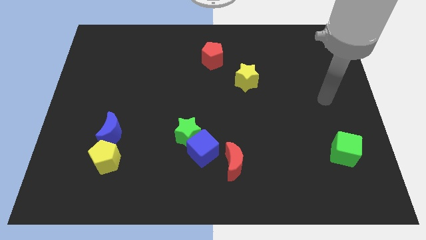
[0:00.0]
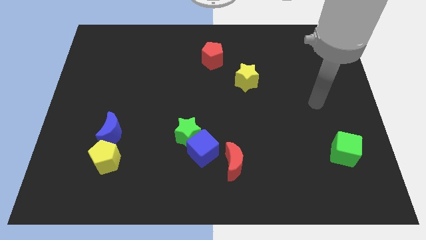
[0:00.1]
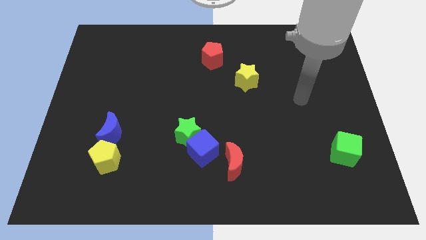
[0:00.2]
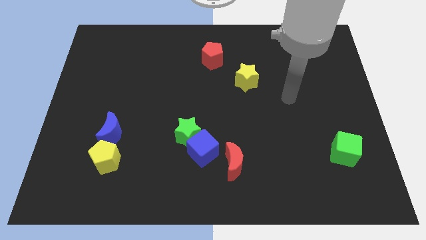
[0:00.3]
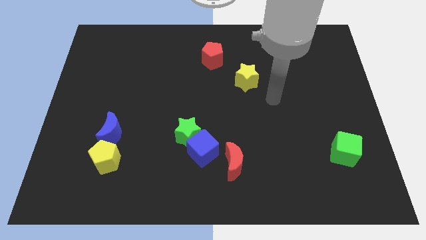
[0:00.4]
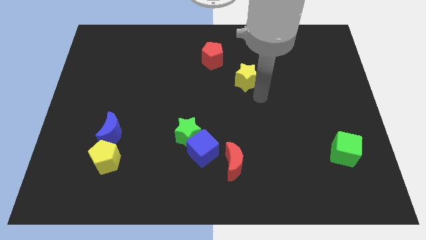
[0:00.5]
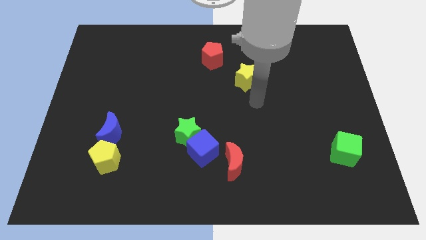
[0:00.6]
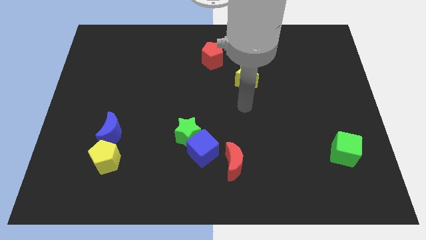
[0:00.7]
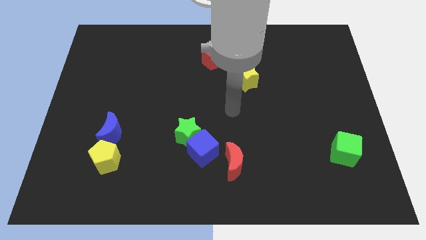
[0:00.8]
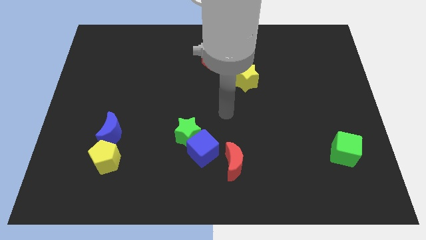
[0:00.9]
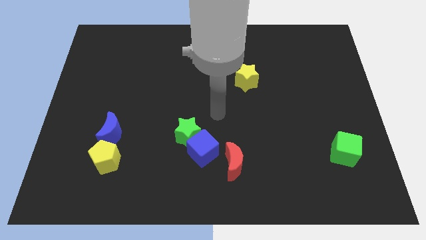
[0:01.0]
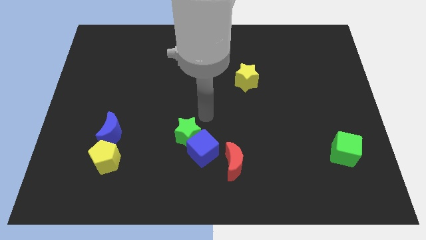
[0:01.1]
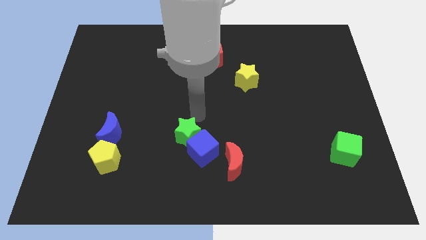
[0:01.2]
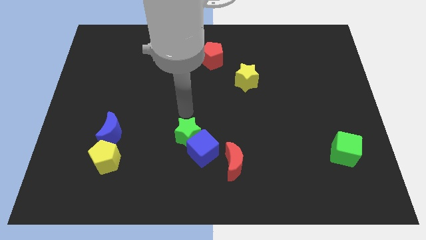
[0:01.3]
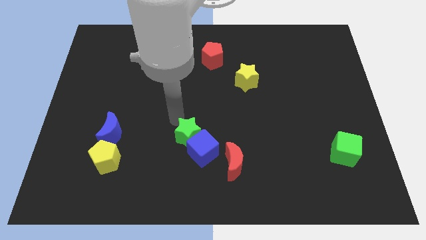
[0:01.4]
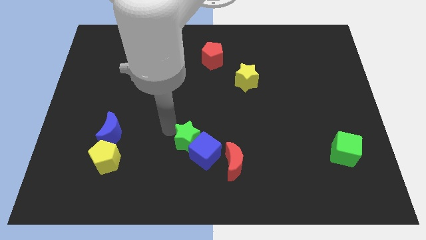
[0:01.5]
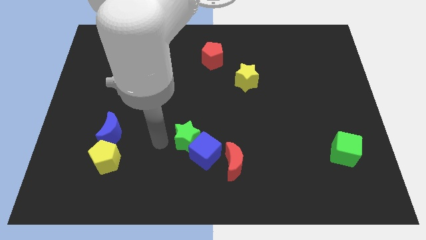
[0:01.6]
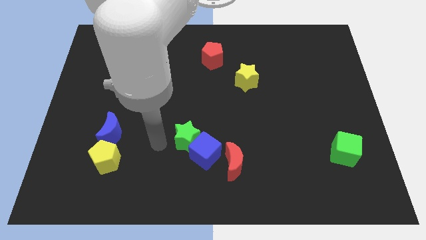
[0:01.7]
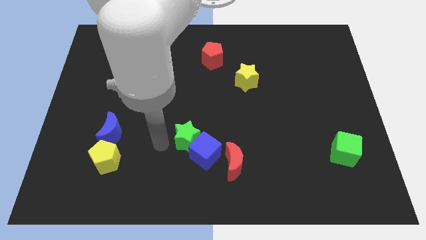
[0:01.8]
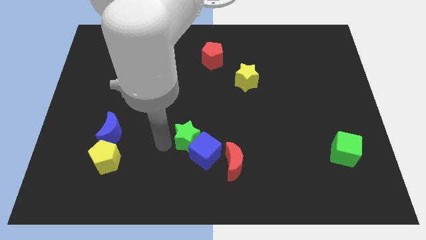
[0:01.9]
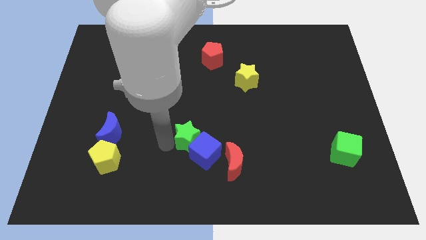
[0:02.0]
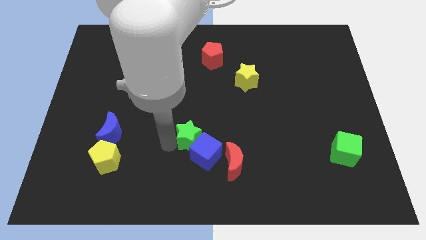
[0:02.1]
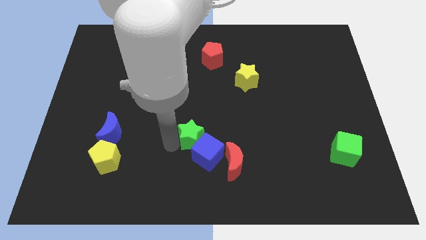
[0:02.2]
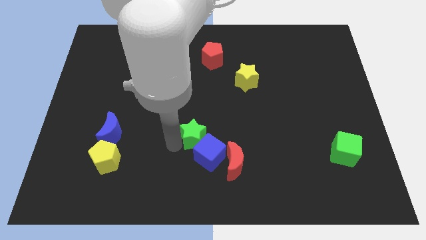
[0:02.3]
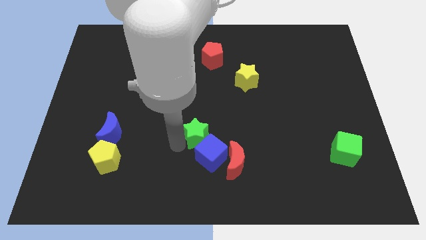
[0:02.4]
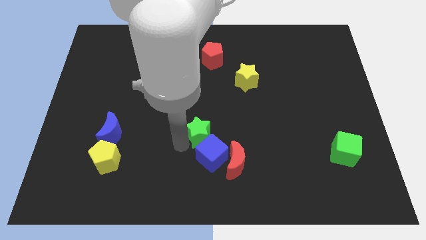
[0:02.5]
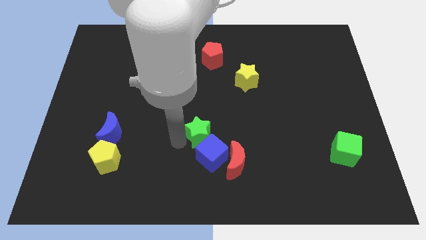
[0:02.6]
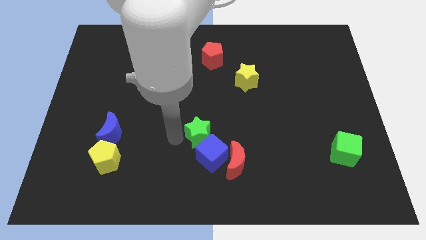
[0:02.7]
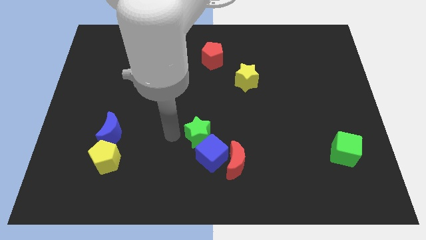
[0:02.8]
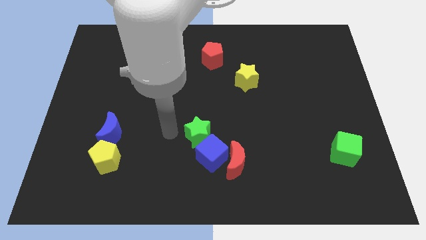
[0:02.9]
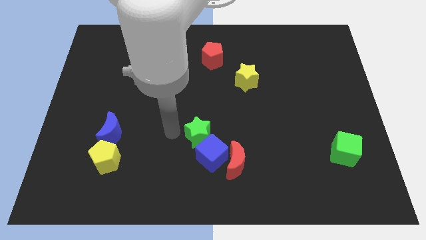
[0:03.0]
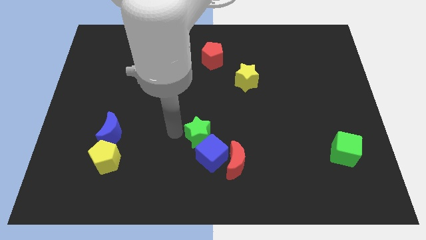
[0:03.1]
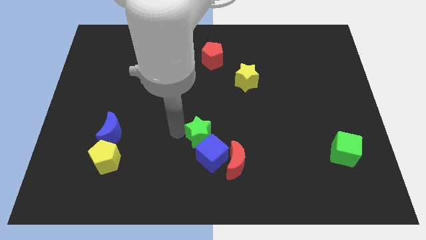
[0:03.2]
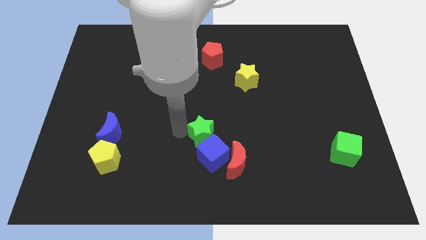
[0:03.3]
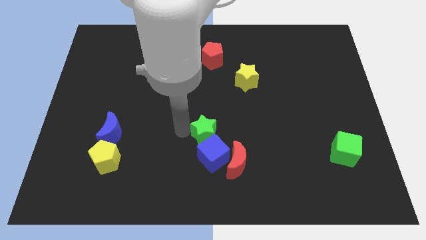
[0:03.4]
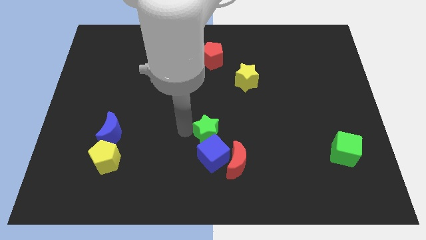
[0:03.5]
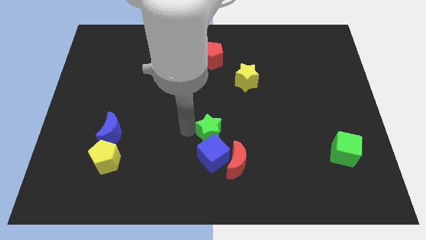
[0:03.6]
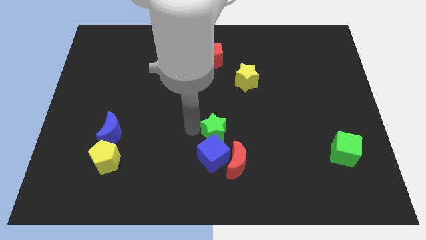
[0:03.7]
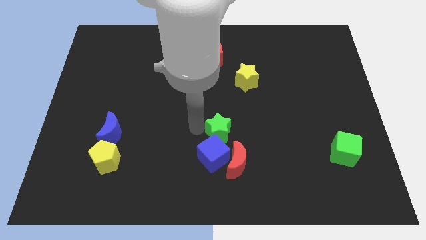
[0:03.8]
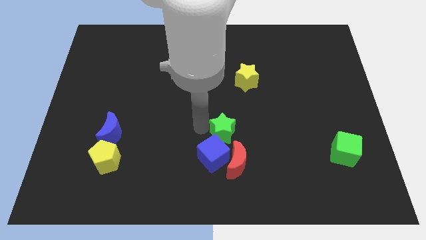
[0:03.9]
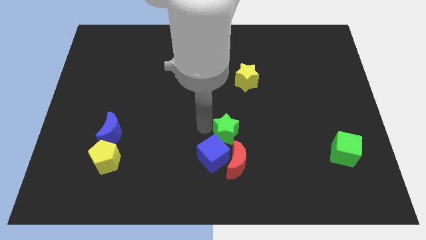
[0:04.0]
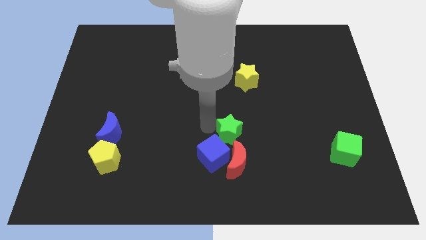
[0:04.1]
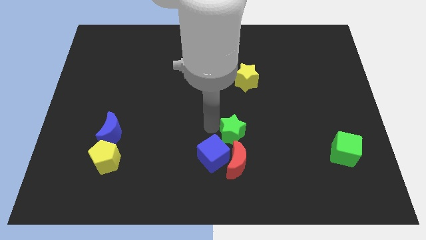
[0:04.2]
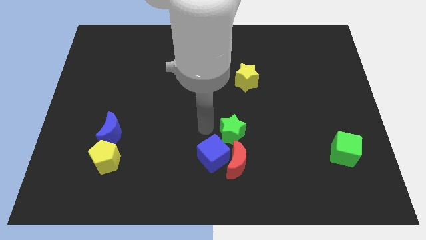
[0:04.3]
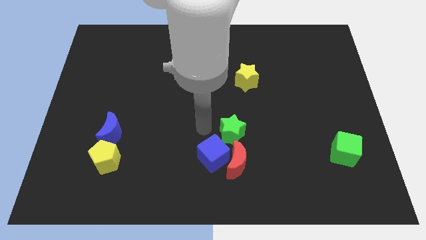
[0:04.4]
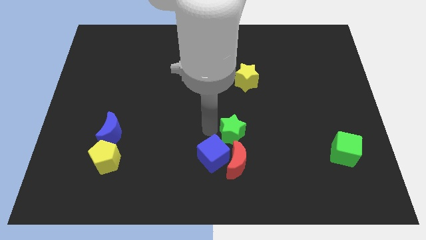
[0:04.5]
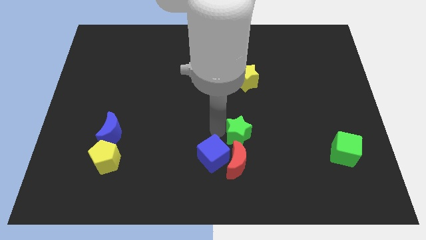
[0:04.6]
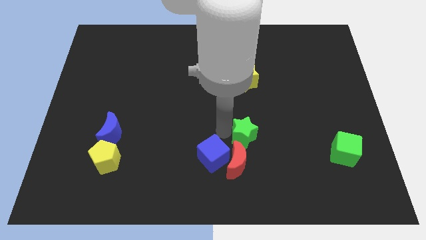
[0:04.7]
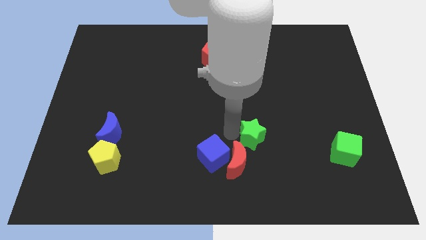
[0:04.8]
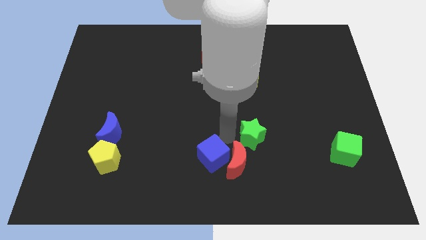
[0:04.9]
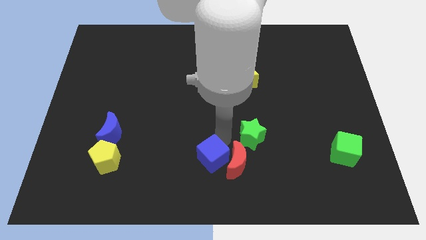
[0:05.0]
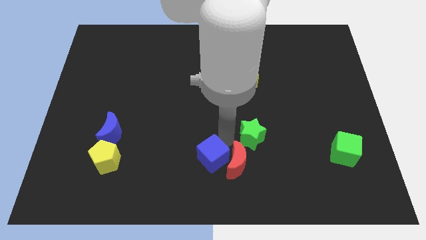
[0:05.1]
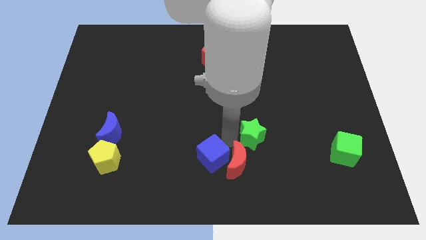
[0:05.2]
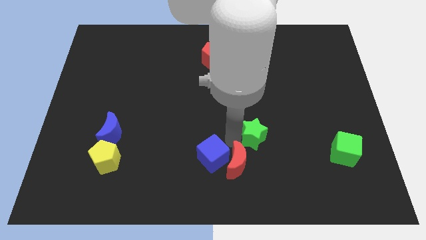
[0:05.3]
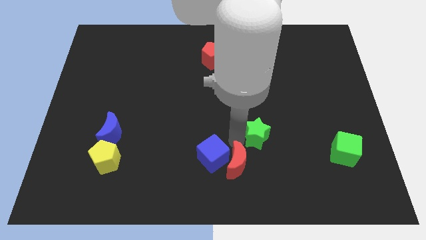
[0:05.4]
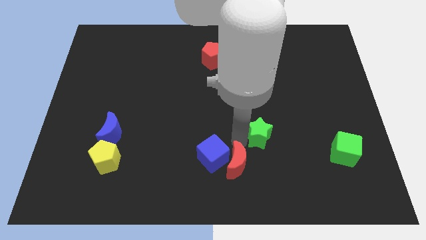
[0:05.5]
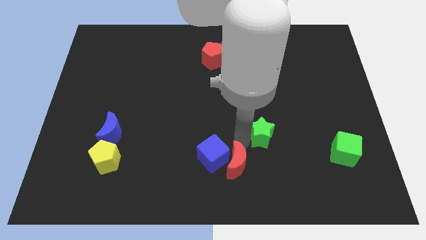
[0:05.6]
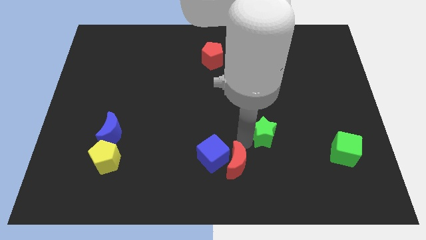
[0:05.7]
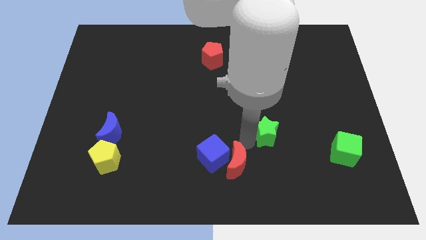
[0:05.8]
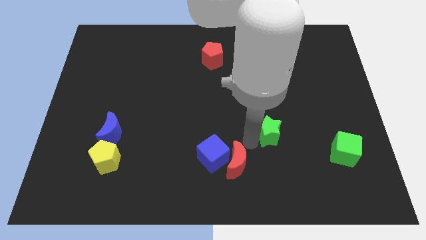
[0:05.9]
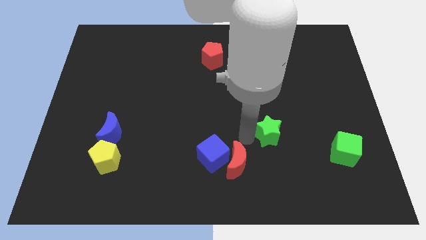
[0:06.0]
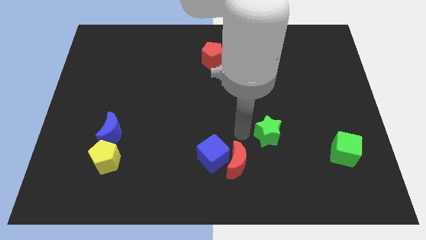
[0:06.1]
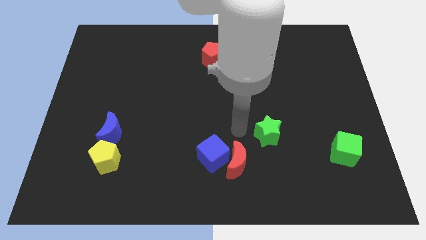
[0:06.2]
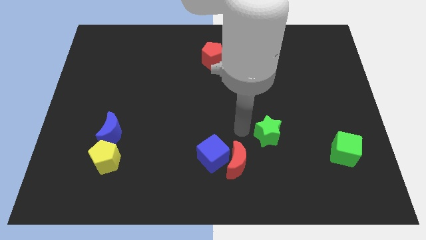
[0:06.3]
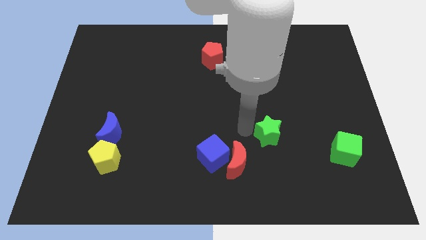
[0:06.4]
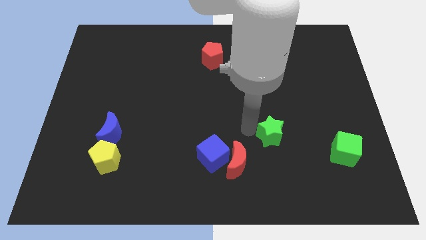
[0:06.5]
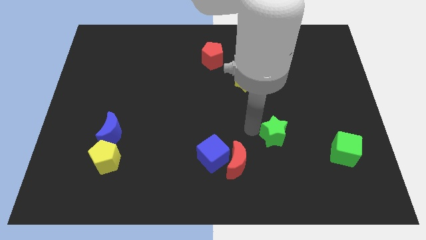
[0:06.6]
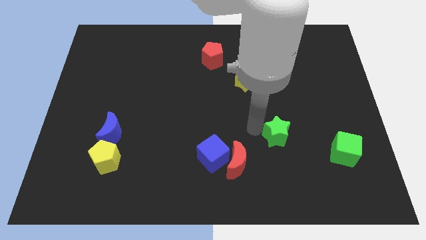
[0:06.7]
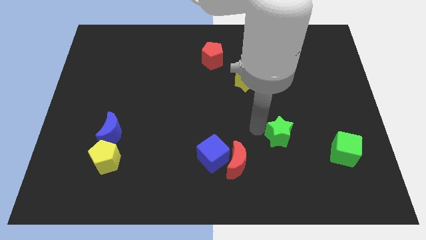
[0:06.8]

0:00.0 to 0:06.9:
push the green star right

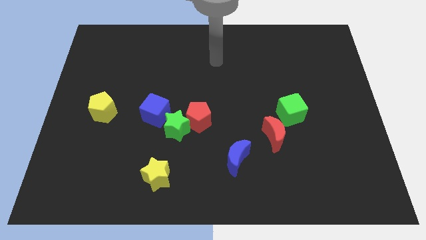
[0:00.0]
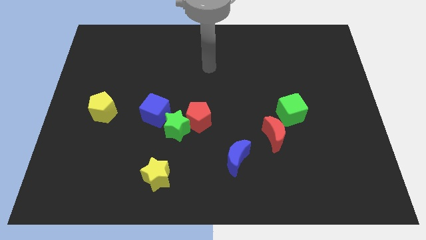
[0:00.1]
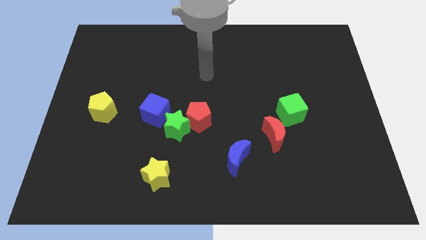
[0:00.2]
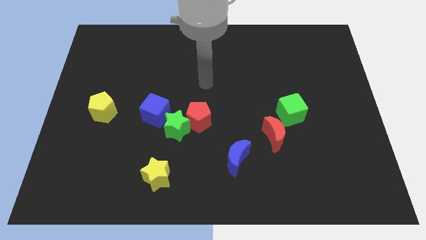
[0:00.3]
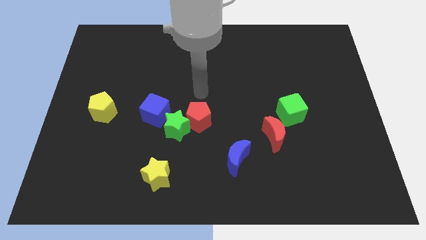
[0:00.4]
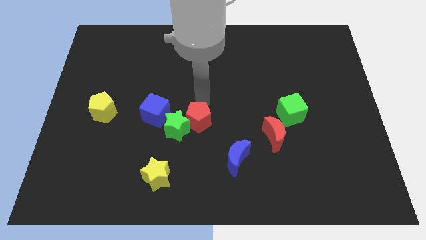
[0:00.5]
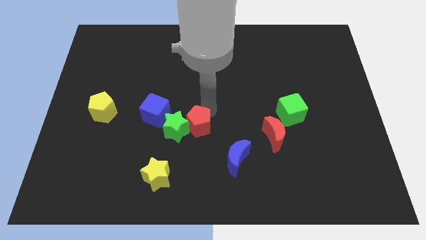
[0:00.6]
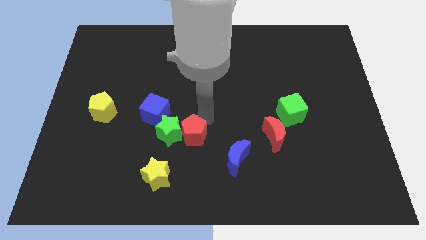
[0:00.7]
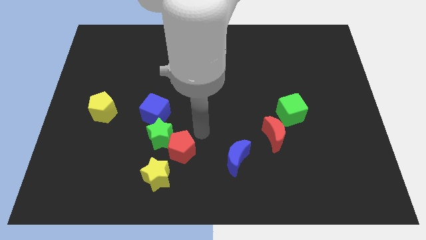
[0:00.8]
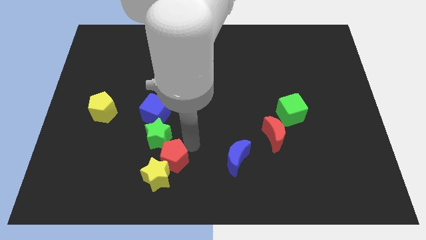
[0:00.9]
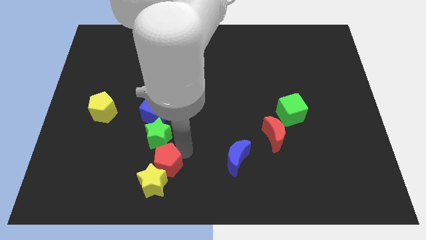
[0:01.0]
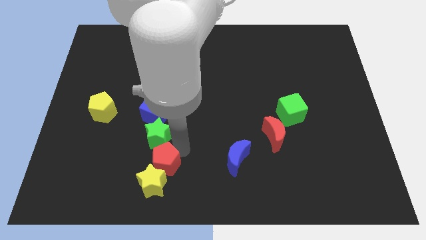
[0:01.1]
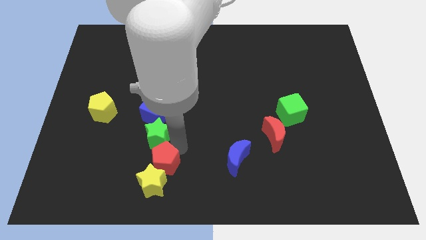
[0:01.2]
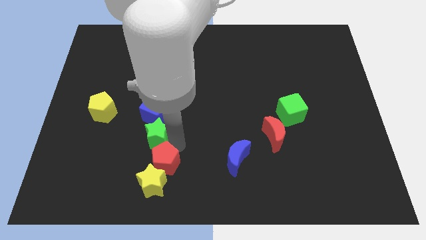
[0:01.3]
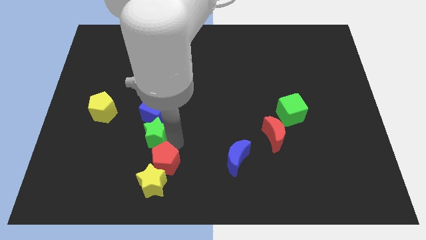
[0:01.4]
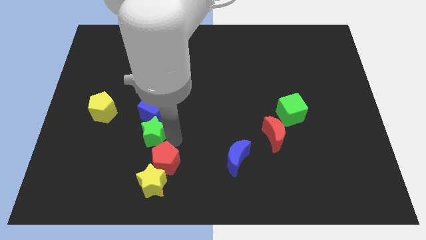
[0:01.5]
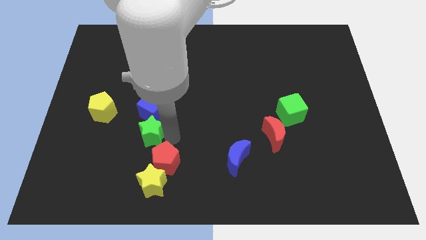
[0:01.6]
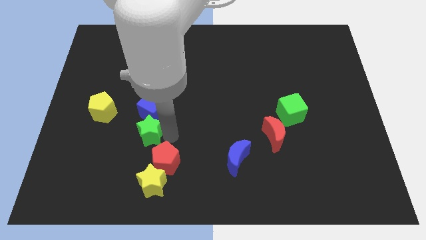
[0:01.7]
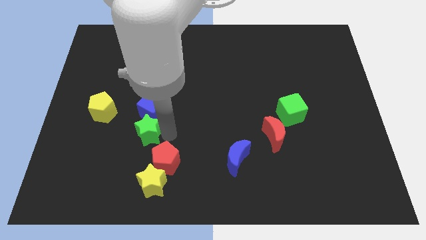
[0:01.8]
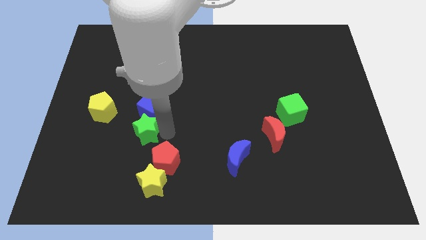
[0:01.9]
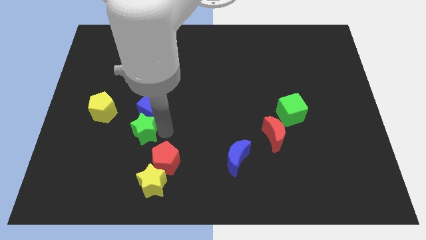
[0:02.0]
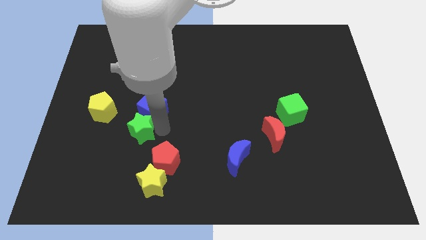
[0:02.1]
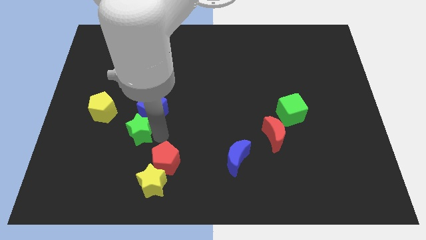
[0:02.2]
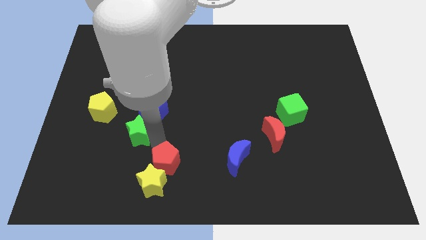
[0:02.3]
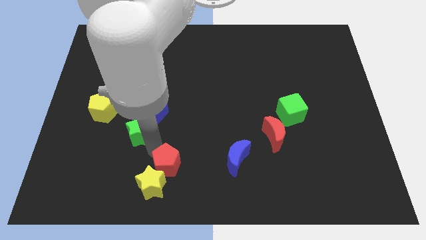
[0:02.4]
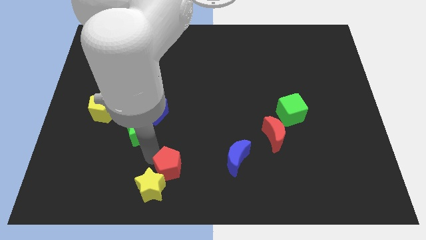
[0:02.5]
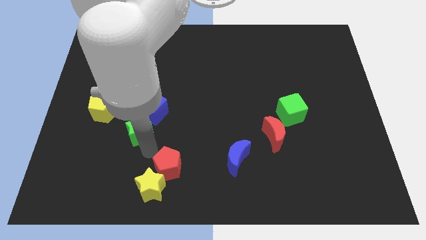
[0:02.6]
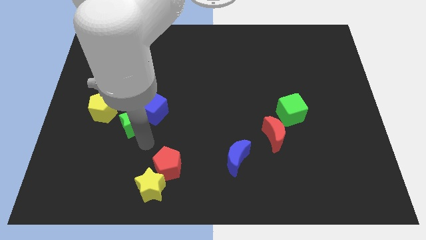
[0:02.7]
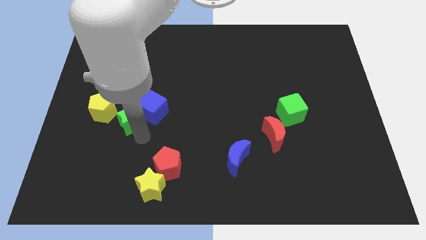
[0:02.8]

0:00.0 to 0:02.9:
push the green star a little diagonally upwards and to the left
